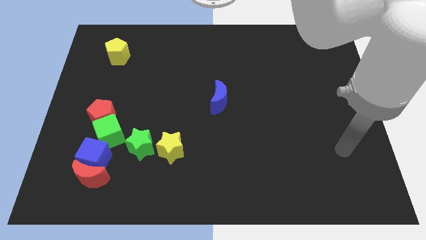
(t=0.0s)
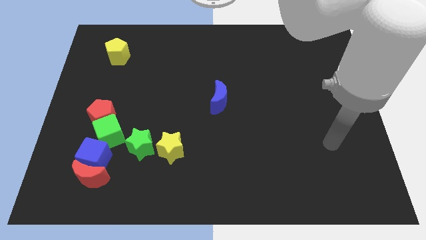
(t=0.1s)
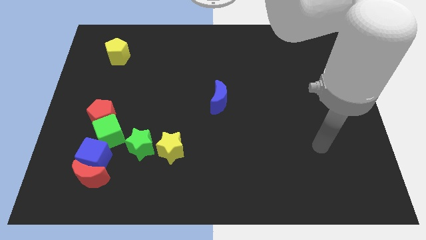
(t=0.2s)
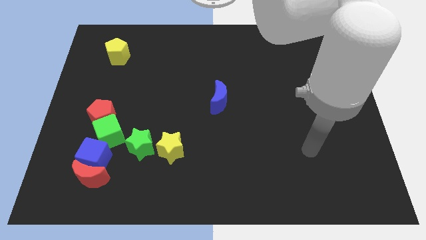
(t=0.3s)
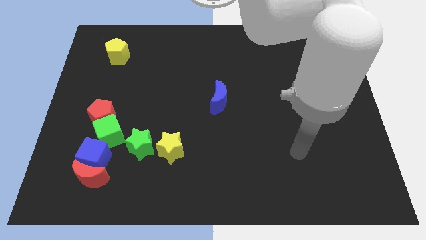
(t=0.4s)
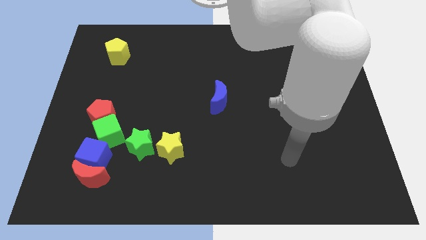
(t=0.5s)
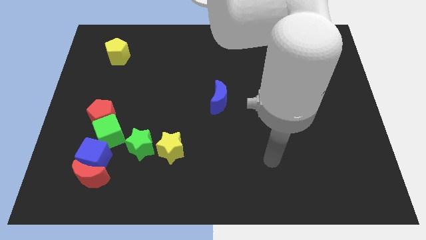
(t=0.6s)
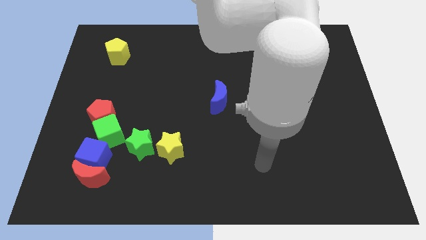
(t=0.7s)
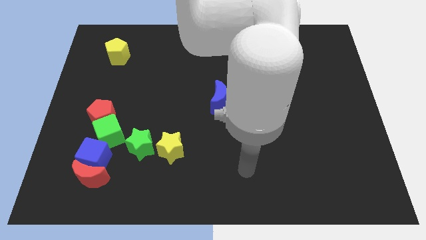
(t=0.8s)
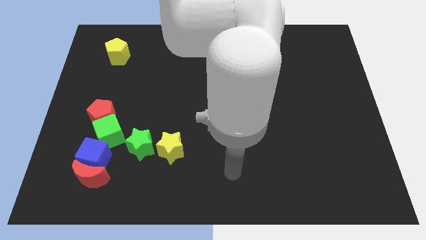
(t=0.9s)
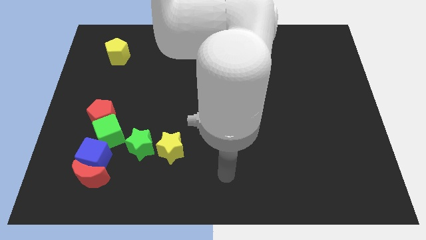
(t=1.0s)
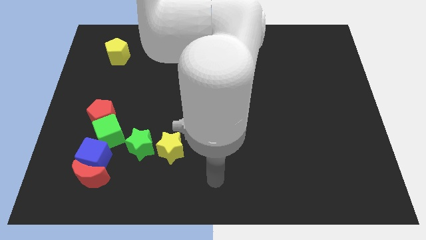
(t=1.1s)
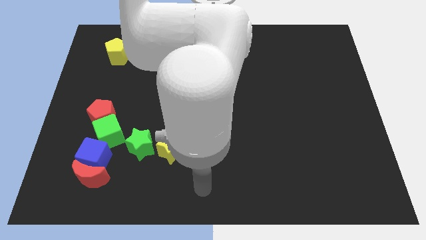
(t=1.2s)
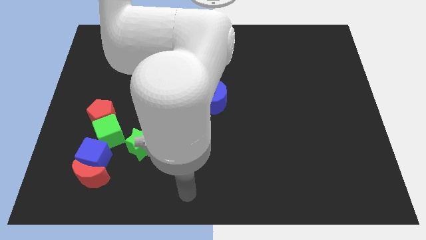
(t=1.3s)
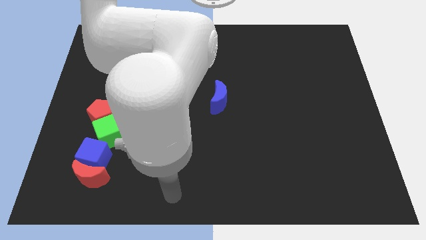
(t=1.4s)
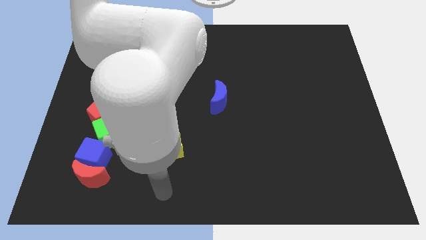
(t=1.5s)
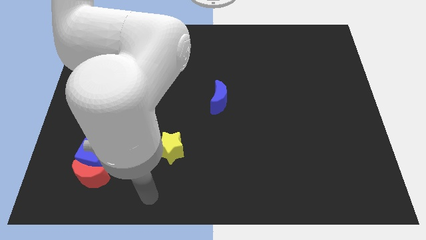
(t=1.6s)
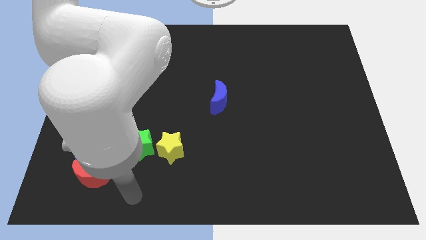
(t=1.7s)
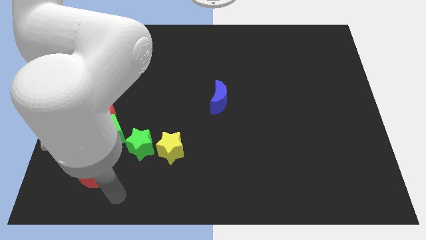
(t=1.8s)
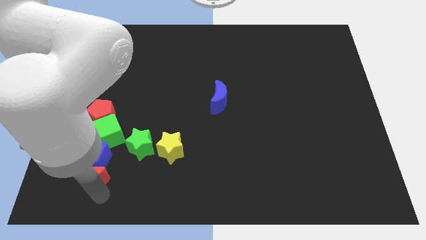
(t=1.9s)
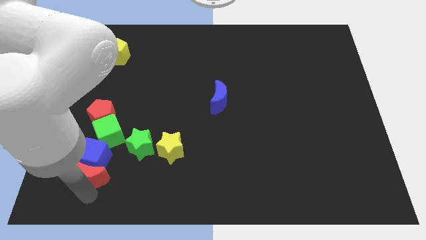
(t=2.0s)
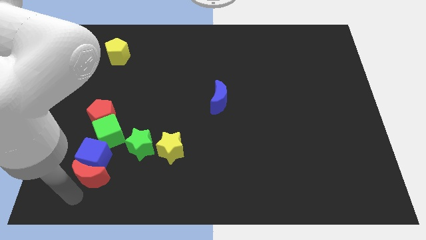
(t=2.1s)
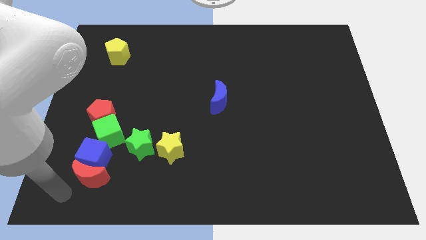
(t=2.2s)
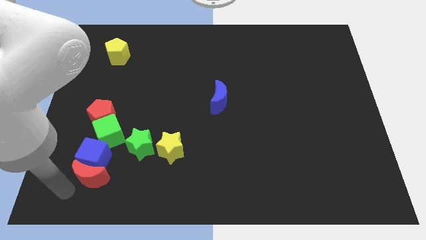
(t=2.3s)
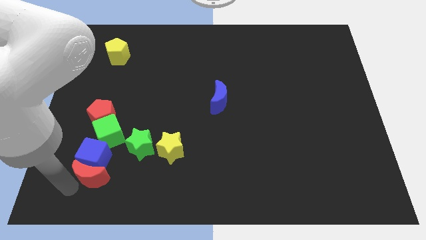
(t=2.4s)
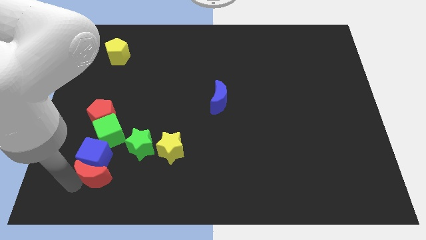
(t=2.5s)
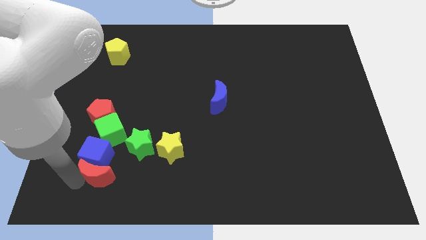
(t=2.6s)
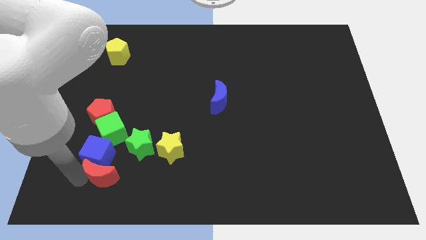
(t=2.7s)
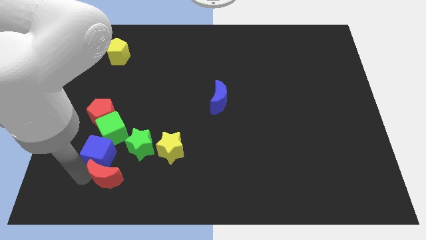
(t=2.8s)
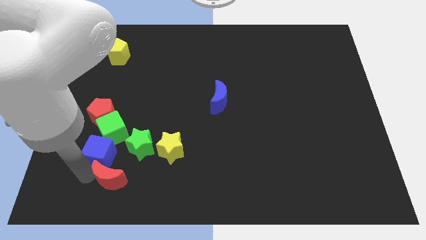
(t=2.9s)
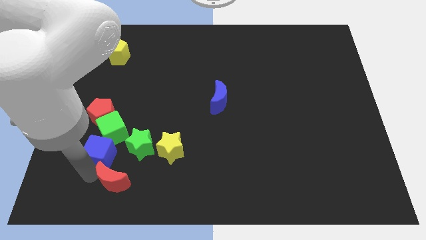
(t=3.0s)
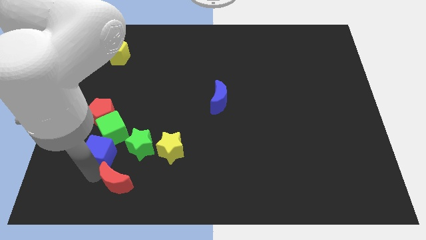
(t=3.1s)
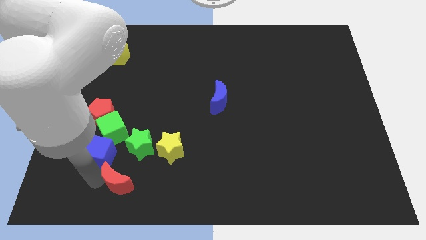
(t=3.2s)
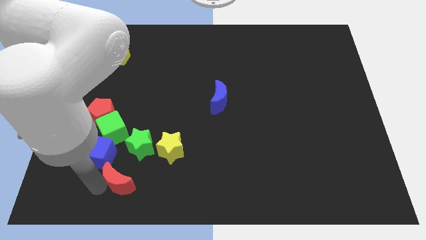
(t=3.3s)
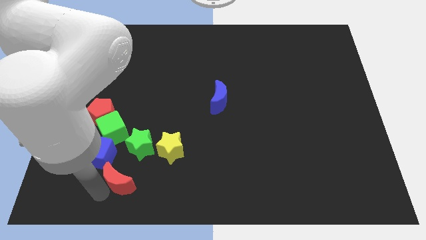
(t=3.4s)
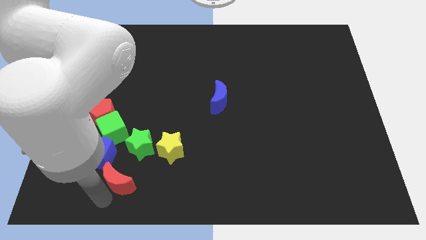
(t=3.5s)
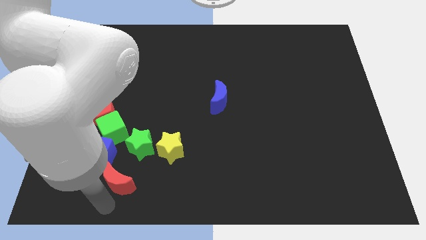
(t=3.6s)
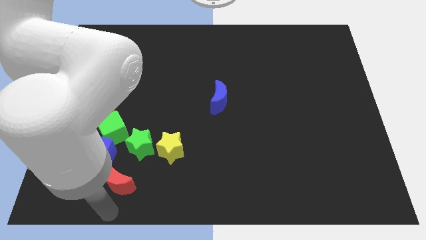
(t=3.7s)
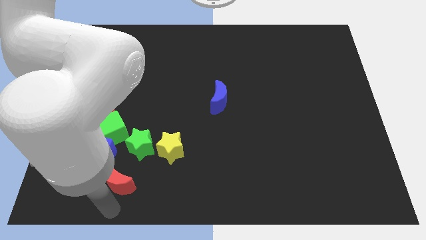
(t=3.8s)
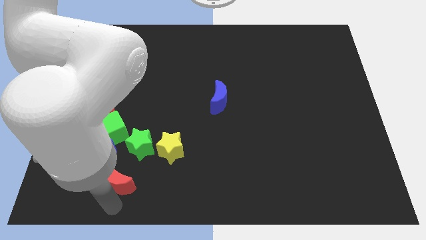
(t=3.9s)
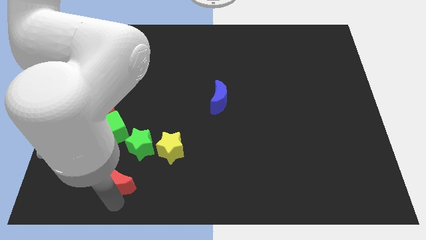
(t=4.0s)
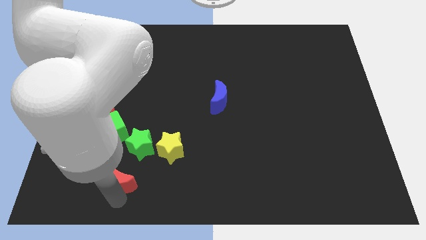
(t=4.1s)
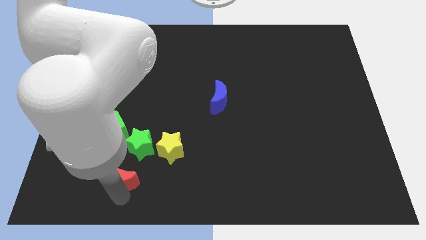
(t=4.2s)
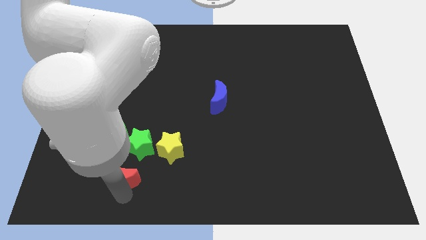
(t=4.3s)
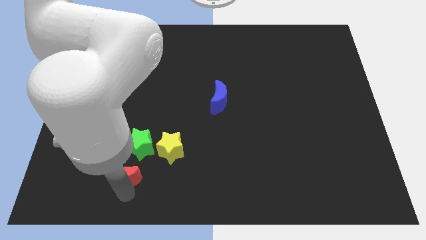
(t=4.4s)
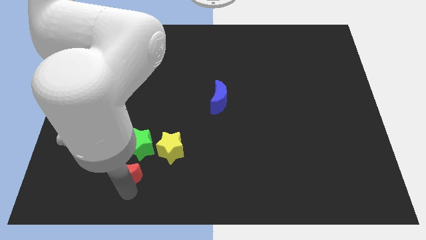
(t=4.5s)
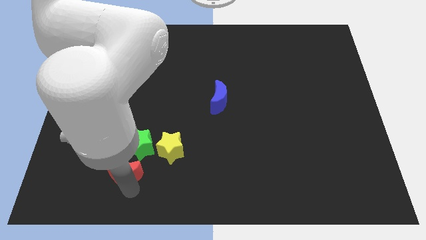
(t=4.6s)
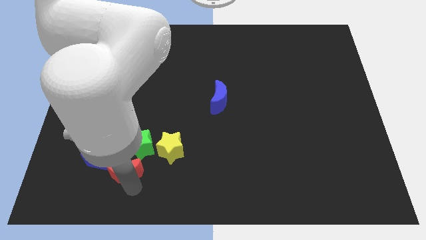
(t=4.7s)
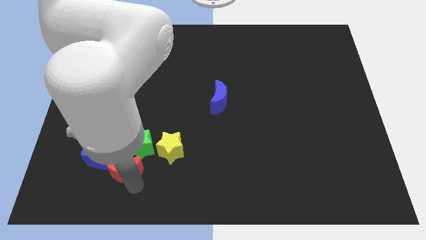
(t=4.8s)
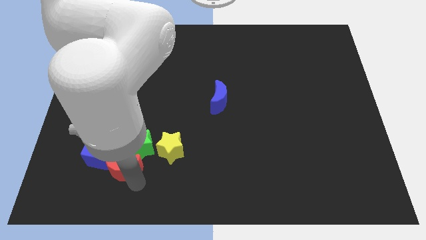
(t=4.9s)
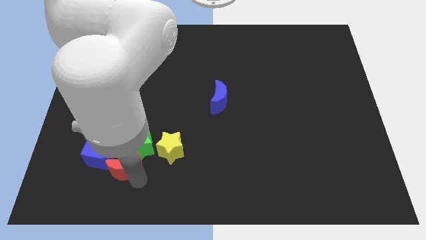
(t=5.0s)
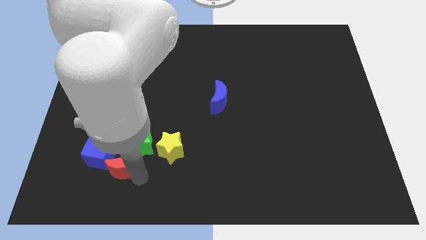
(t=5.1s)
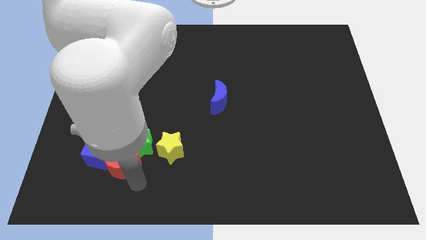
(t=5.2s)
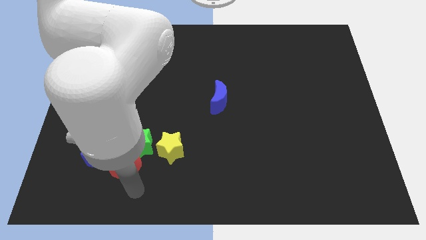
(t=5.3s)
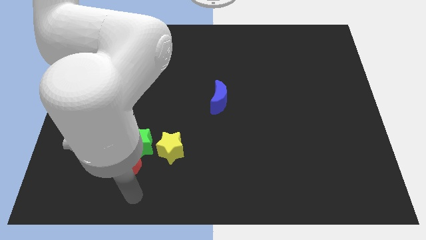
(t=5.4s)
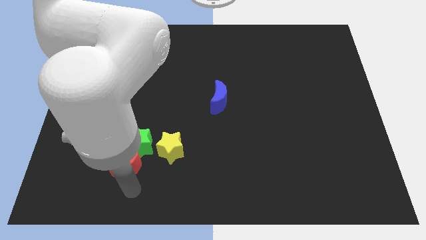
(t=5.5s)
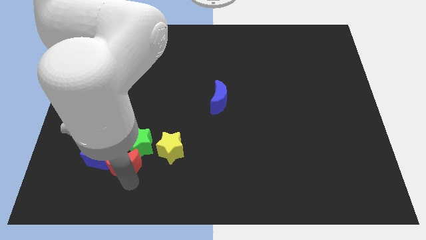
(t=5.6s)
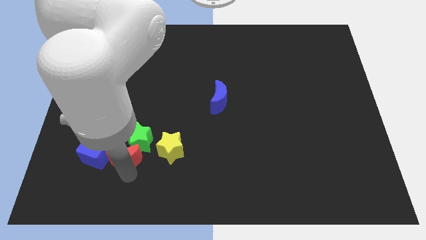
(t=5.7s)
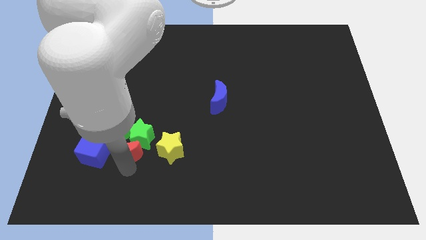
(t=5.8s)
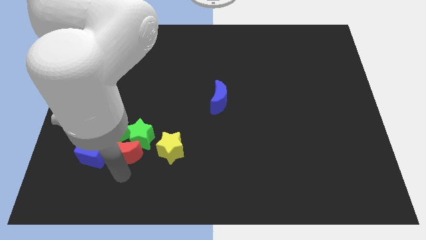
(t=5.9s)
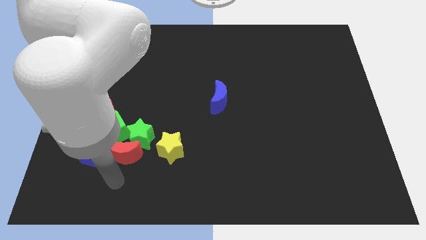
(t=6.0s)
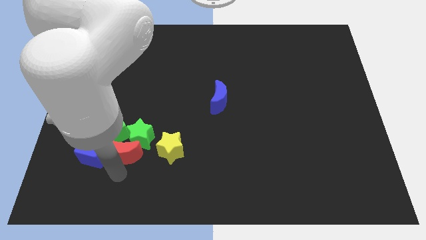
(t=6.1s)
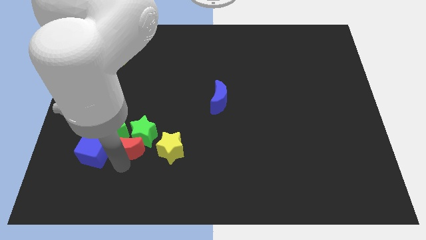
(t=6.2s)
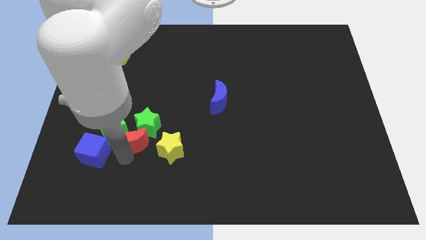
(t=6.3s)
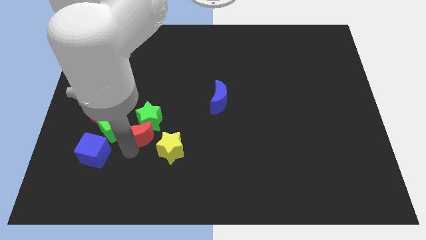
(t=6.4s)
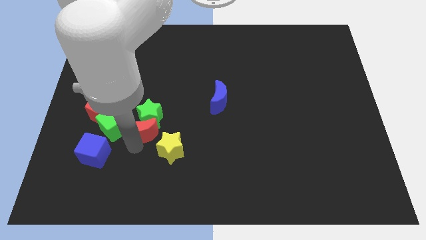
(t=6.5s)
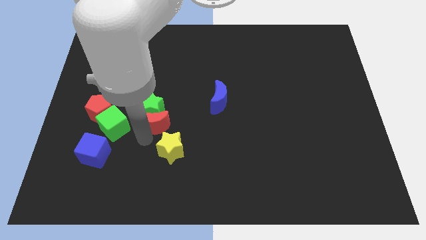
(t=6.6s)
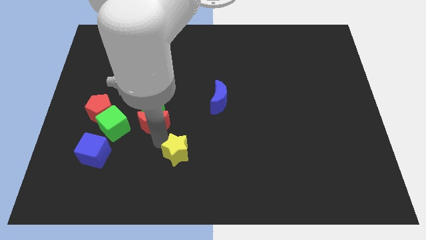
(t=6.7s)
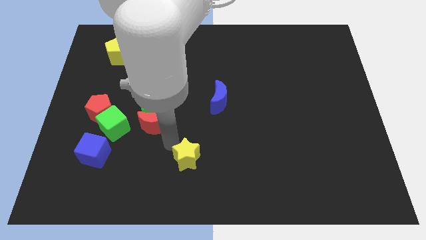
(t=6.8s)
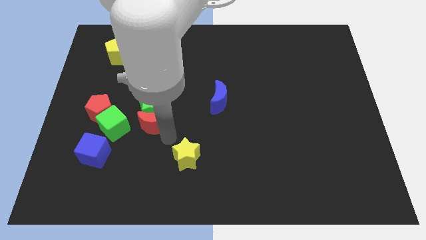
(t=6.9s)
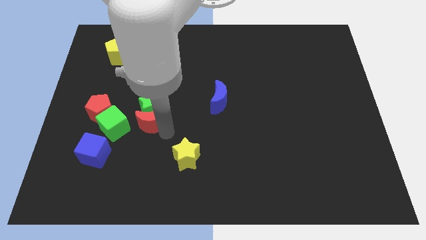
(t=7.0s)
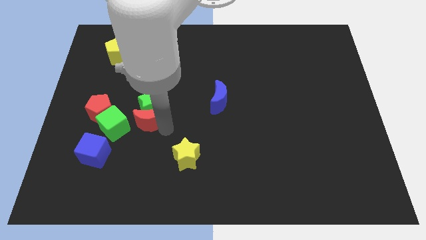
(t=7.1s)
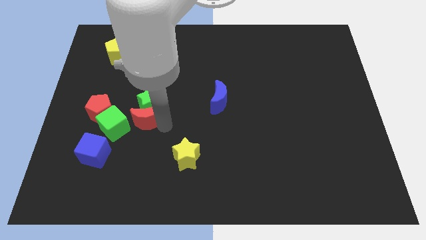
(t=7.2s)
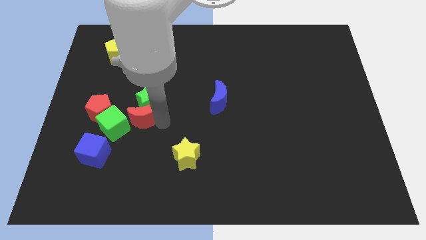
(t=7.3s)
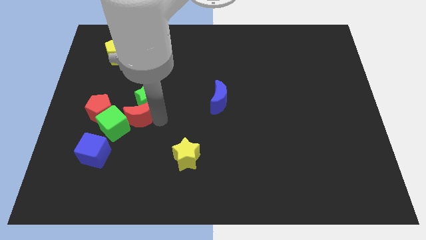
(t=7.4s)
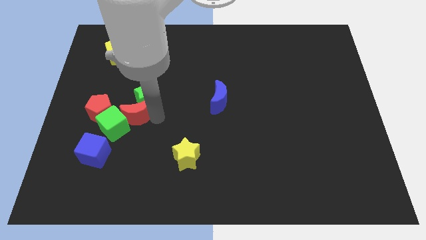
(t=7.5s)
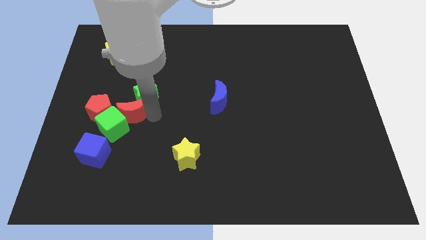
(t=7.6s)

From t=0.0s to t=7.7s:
move the red moon above the green cube

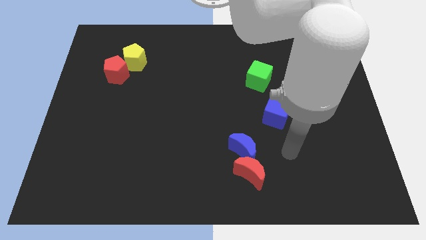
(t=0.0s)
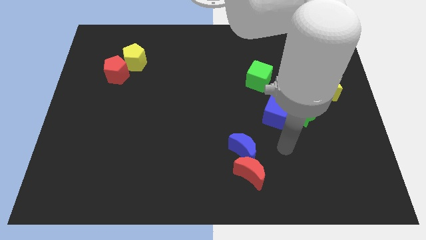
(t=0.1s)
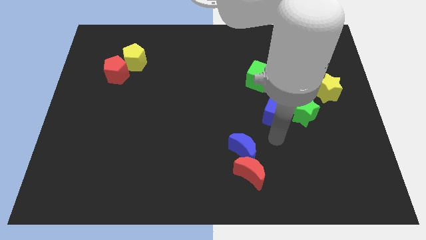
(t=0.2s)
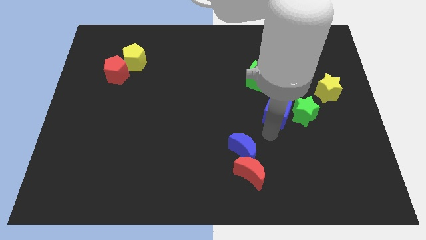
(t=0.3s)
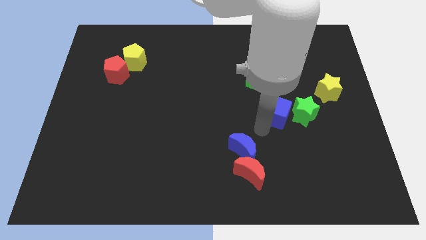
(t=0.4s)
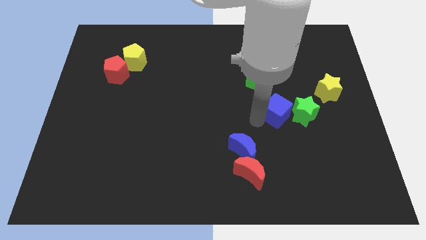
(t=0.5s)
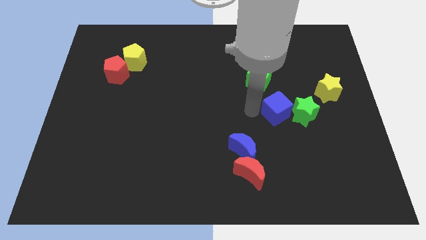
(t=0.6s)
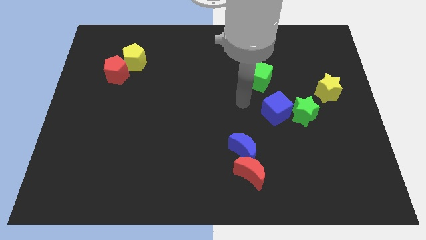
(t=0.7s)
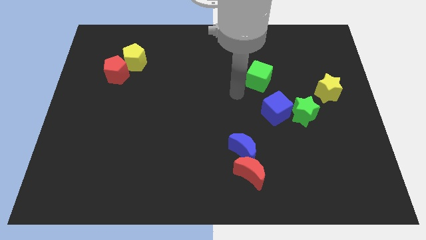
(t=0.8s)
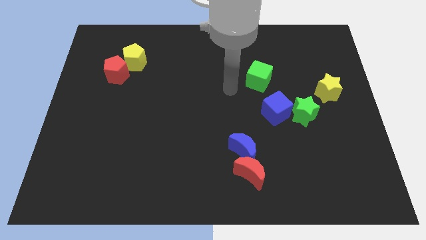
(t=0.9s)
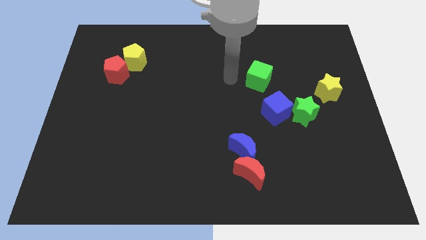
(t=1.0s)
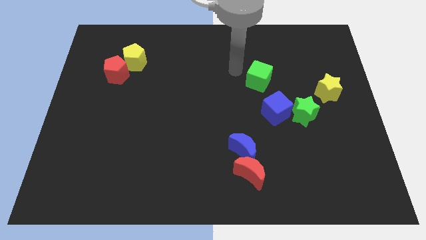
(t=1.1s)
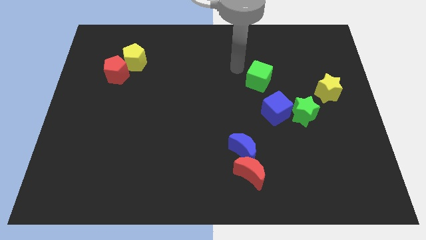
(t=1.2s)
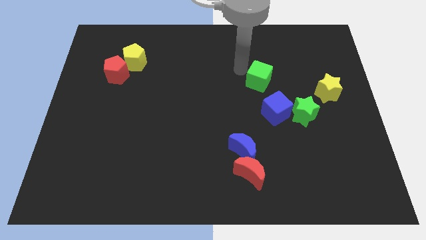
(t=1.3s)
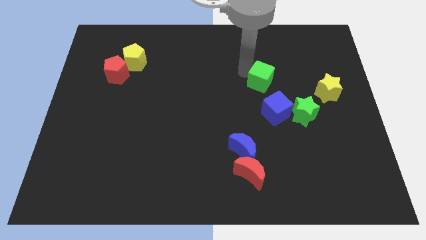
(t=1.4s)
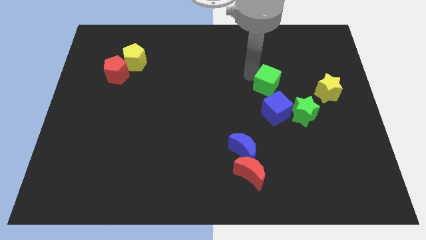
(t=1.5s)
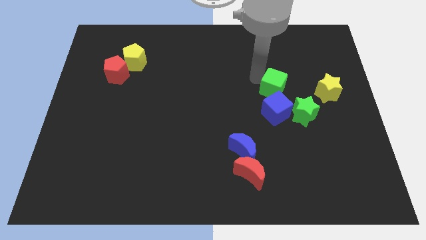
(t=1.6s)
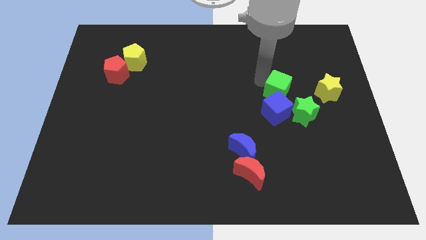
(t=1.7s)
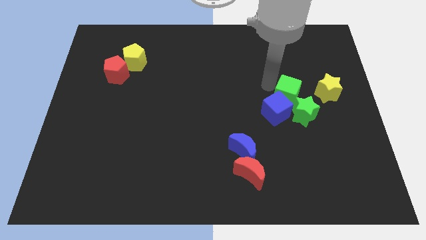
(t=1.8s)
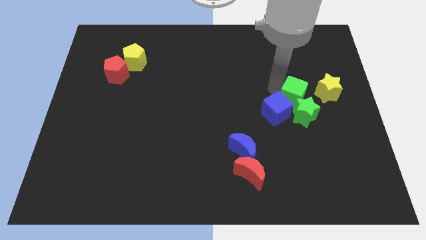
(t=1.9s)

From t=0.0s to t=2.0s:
put the green cube to the right of the blue cube
